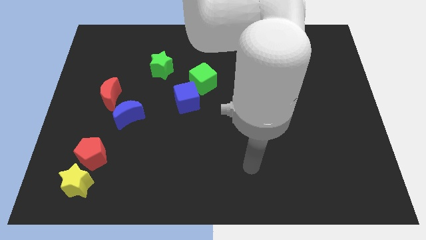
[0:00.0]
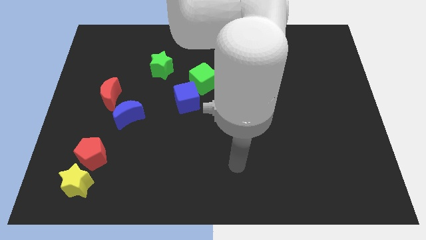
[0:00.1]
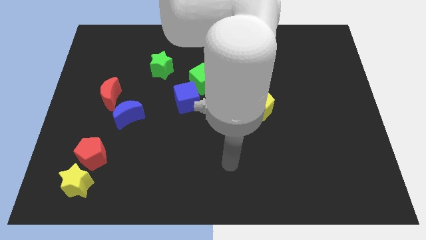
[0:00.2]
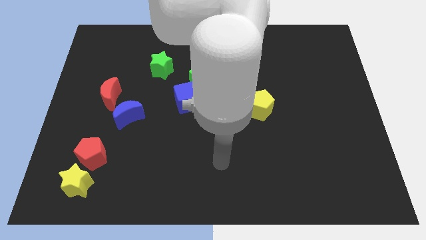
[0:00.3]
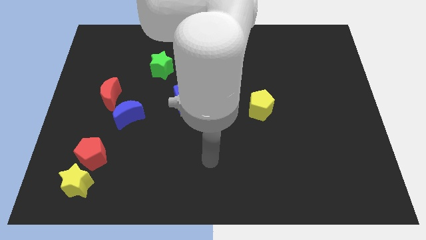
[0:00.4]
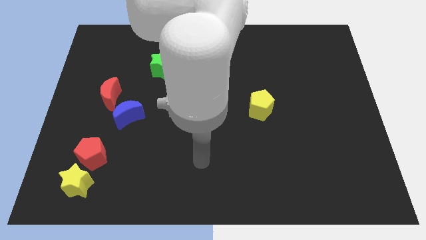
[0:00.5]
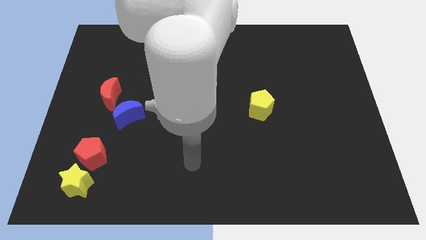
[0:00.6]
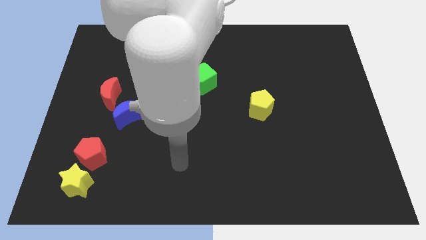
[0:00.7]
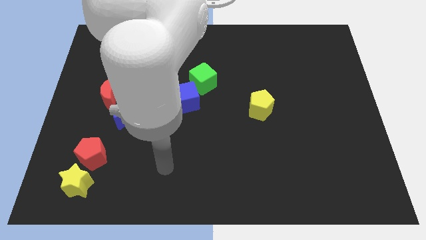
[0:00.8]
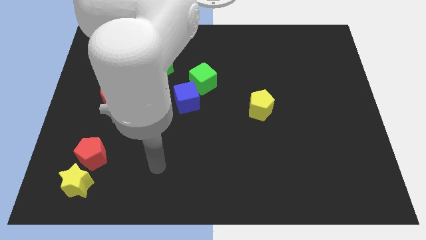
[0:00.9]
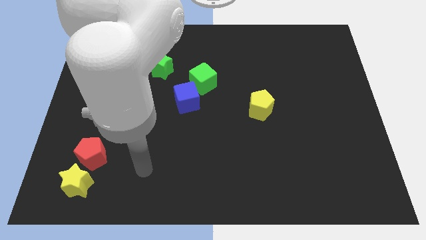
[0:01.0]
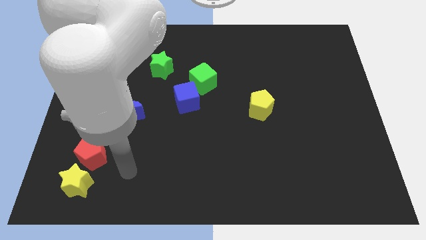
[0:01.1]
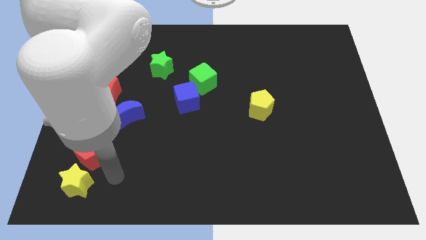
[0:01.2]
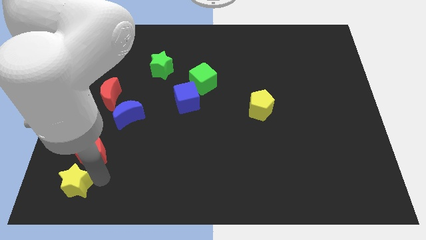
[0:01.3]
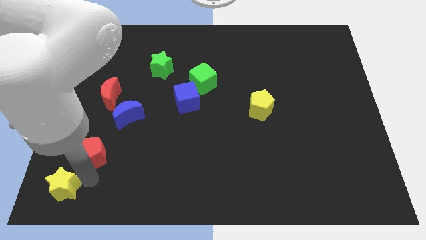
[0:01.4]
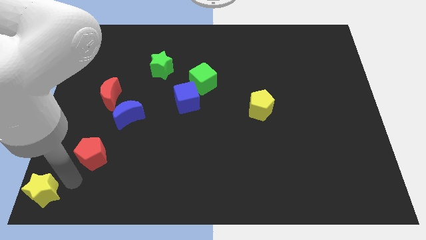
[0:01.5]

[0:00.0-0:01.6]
pull the red pentagon apart from the yellow star

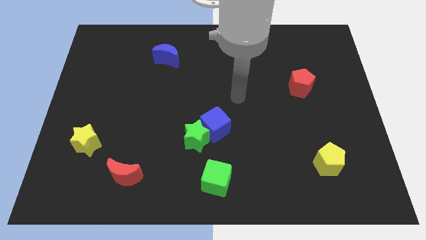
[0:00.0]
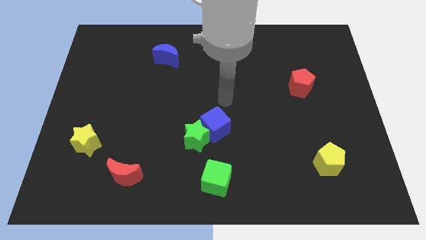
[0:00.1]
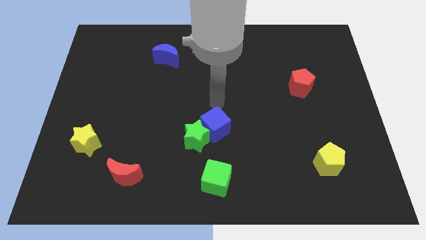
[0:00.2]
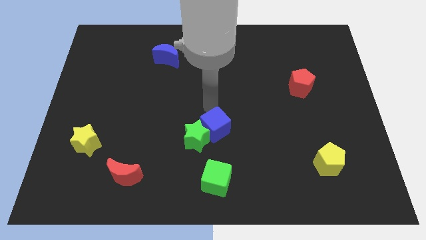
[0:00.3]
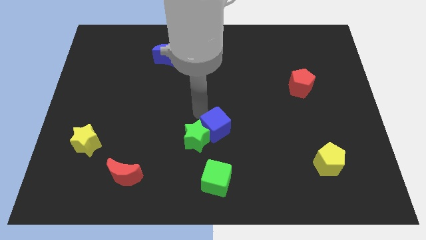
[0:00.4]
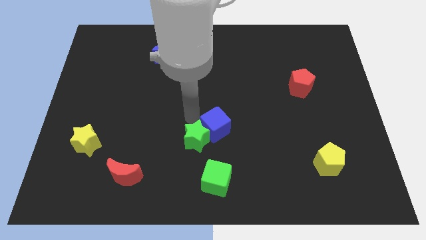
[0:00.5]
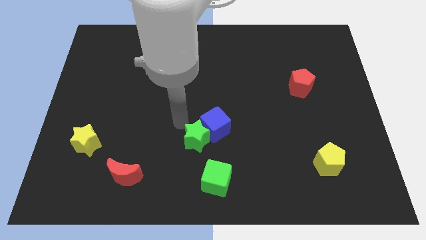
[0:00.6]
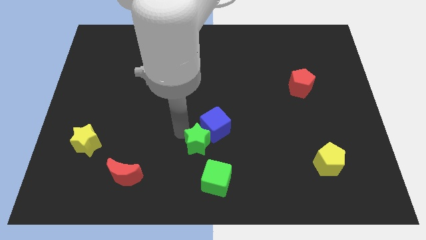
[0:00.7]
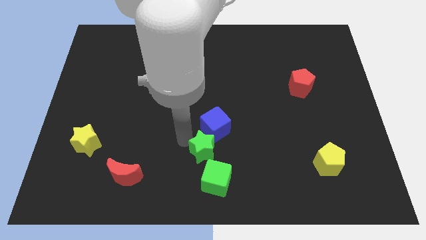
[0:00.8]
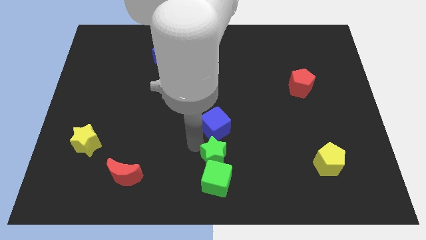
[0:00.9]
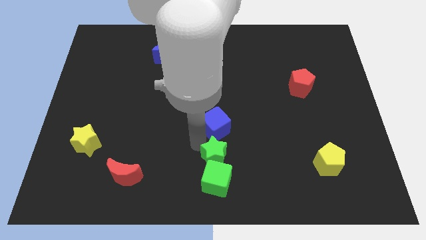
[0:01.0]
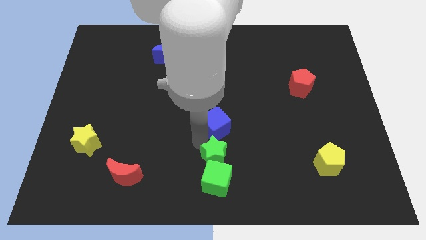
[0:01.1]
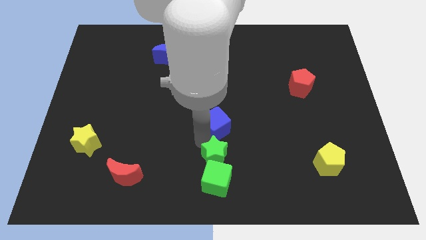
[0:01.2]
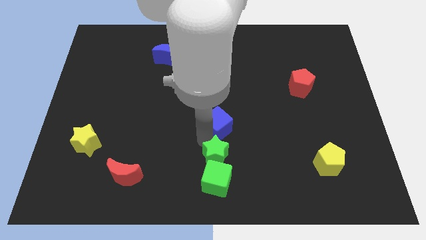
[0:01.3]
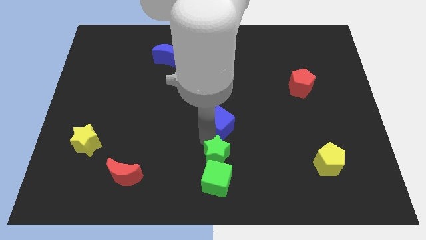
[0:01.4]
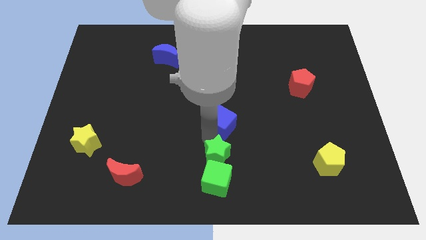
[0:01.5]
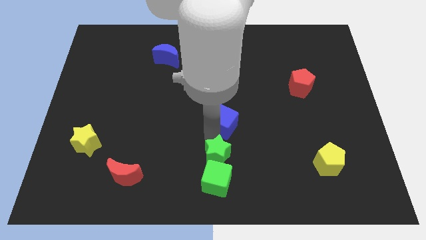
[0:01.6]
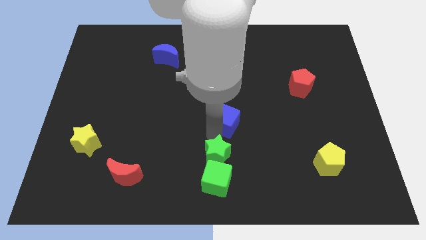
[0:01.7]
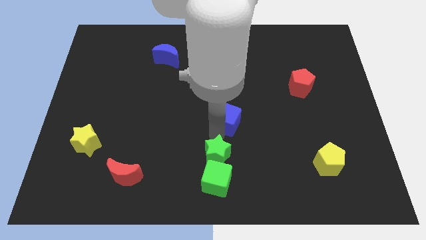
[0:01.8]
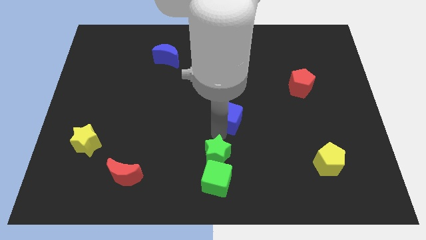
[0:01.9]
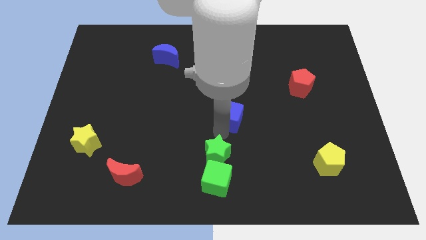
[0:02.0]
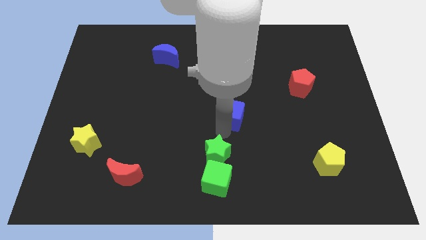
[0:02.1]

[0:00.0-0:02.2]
move the blue cube away from the green star

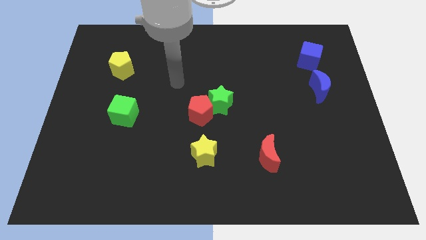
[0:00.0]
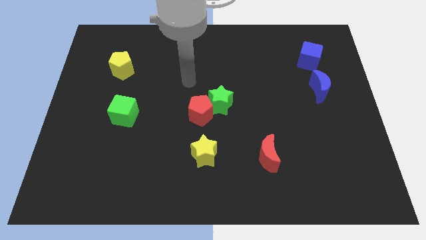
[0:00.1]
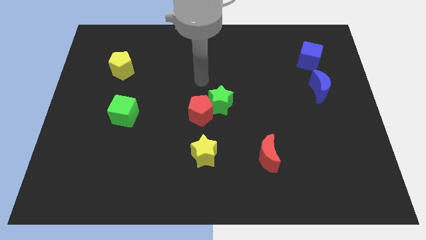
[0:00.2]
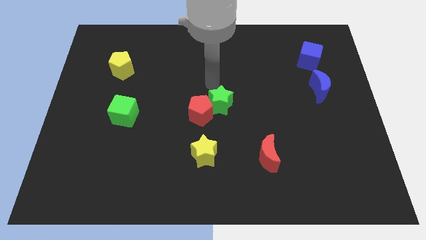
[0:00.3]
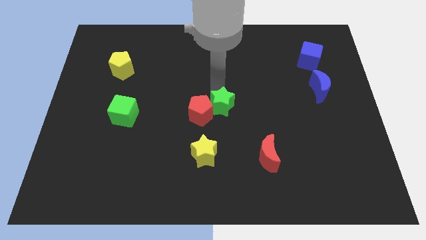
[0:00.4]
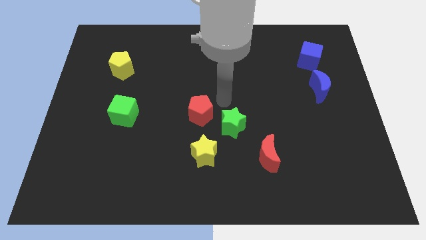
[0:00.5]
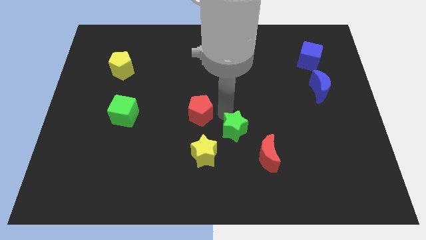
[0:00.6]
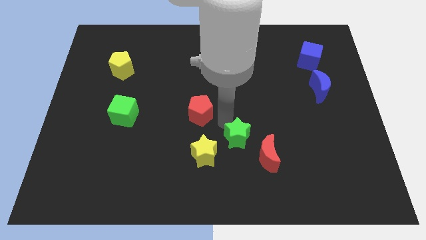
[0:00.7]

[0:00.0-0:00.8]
separate the red pentagon from the green star

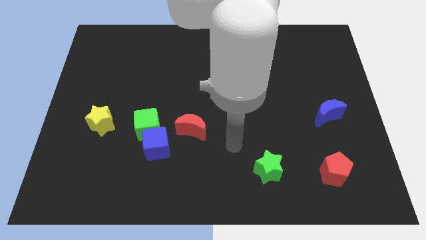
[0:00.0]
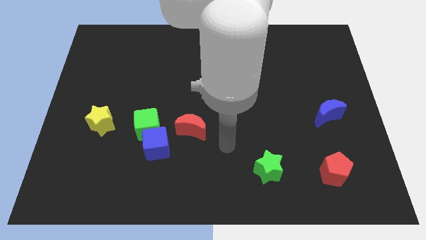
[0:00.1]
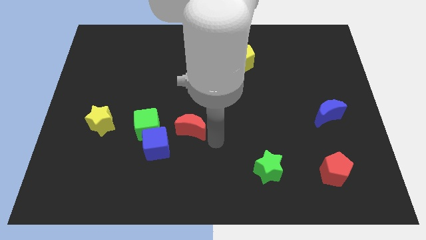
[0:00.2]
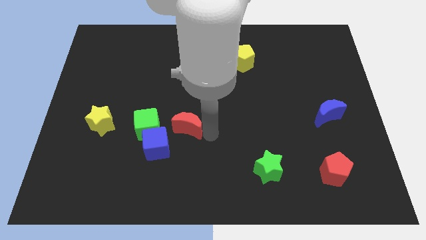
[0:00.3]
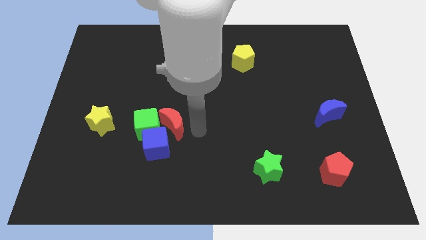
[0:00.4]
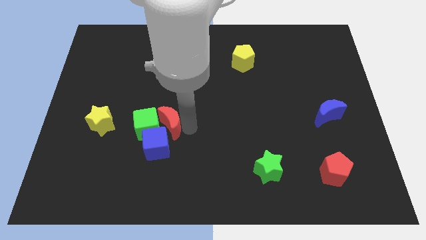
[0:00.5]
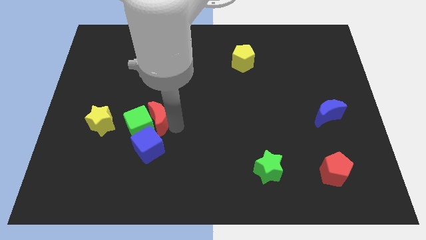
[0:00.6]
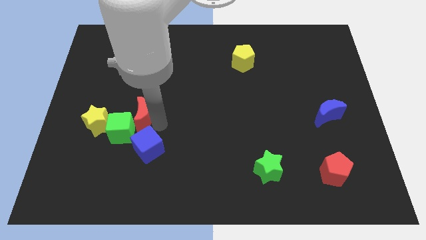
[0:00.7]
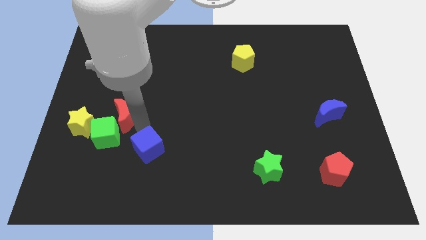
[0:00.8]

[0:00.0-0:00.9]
pull the blue cube apart from the green cube and red moon

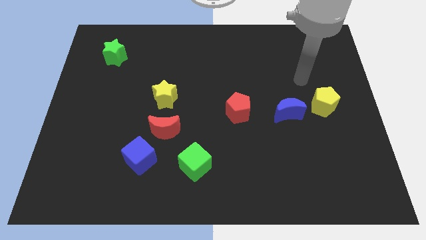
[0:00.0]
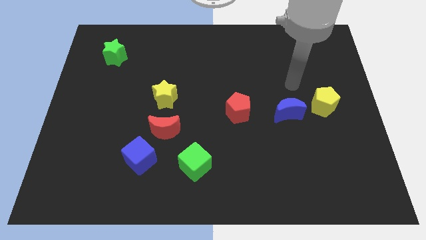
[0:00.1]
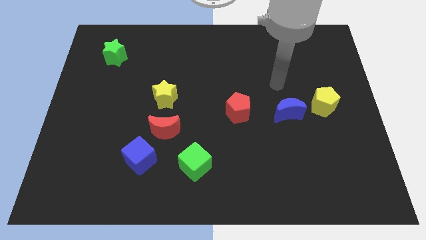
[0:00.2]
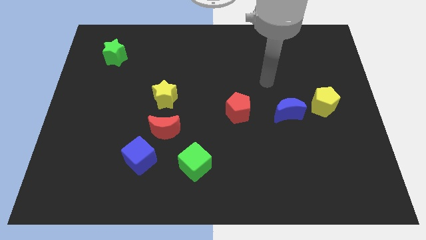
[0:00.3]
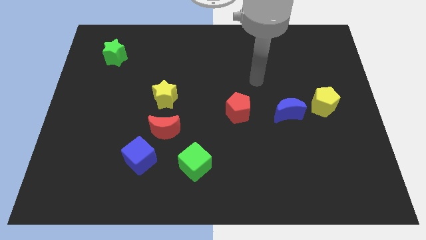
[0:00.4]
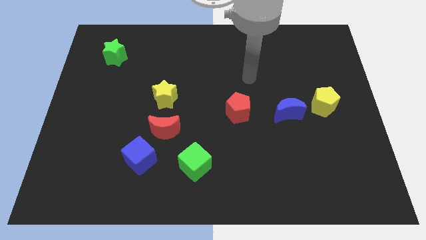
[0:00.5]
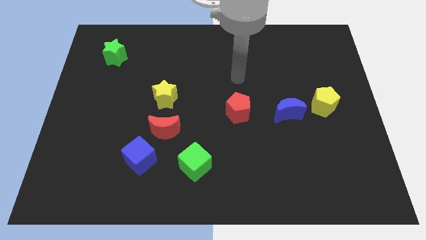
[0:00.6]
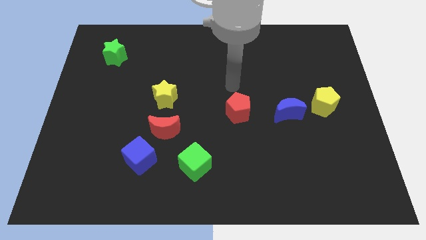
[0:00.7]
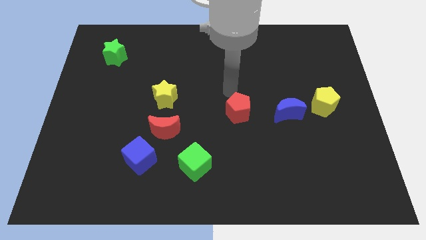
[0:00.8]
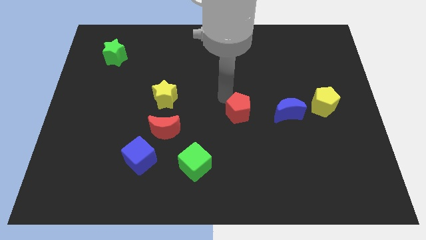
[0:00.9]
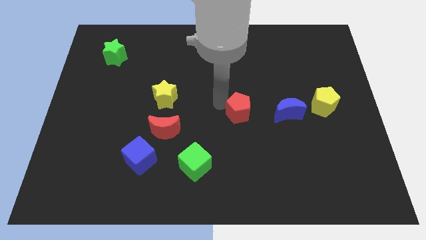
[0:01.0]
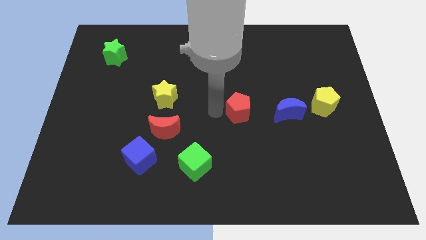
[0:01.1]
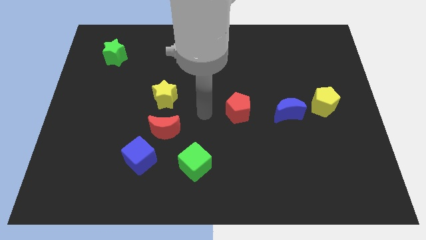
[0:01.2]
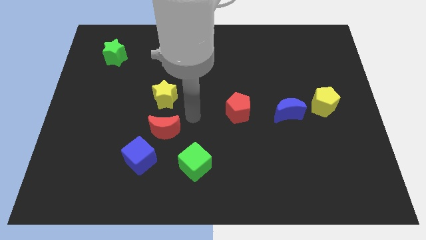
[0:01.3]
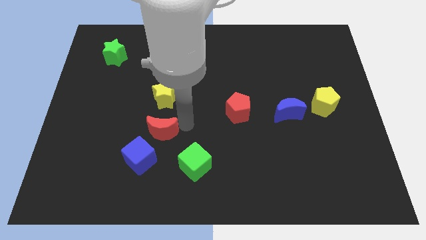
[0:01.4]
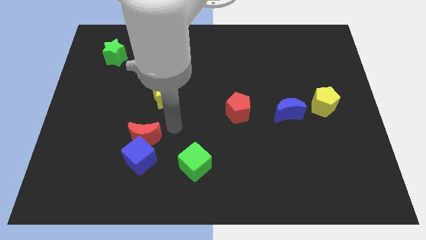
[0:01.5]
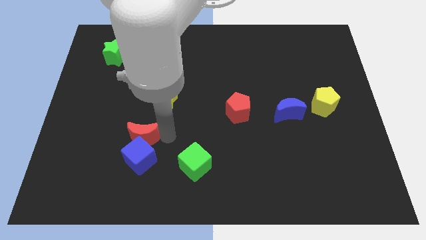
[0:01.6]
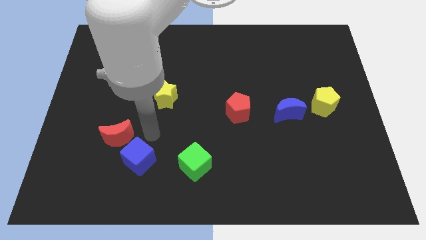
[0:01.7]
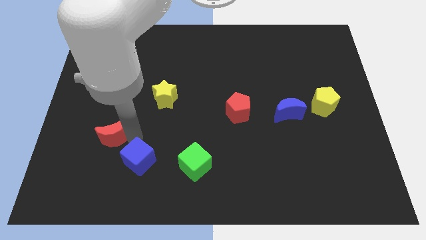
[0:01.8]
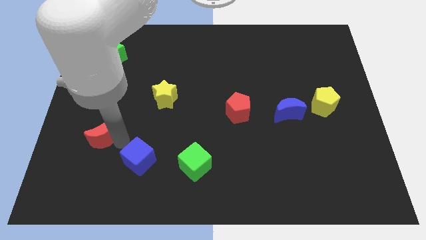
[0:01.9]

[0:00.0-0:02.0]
move the blue cube away from the red moon

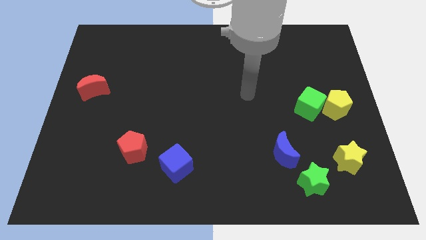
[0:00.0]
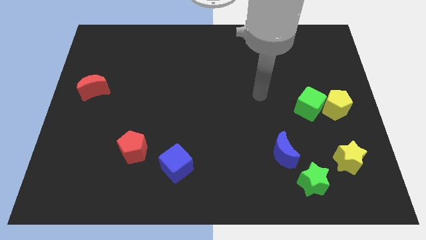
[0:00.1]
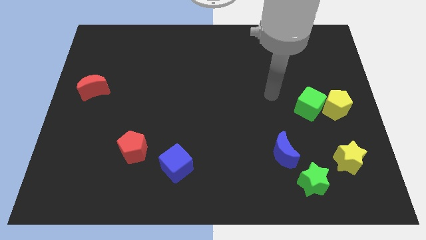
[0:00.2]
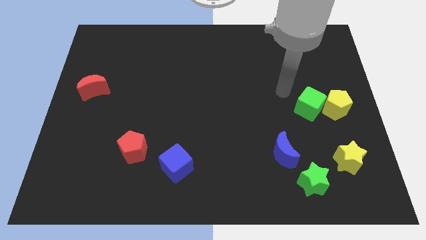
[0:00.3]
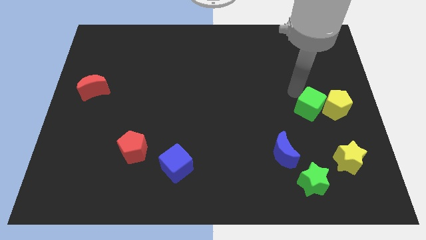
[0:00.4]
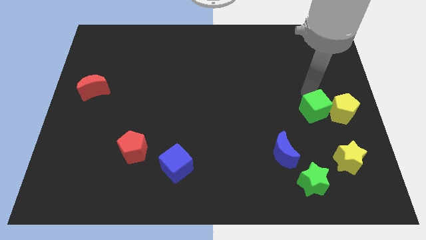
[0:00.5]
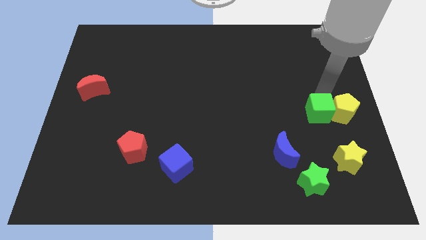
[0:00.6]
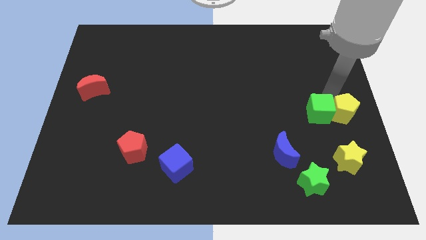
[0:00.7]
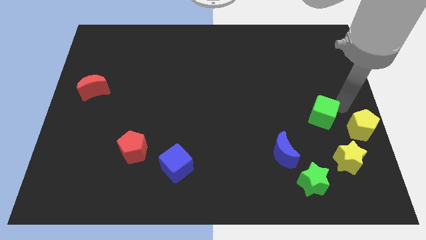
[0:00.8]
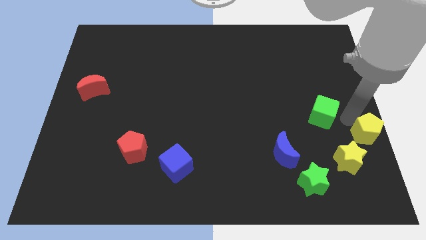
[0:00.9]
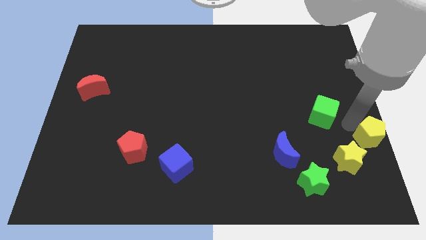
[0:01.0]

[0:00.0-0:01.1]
separate the green cube from the yellow pentagon

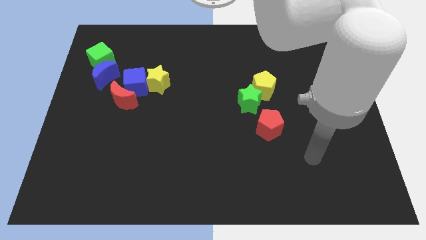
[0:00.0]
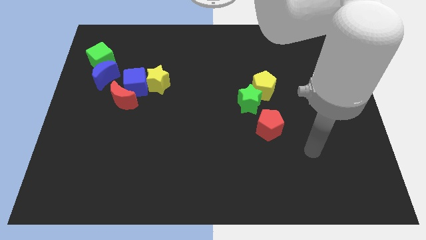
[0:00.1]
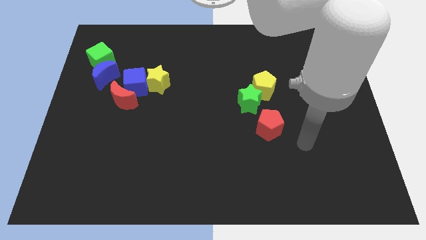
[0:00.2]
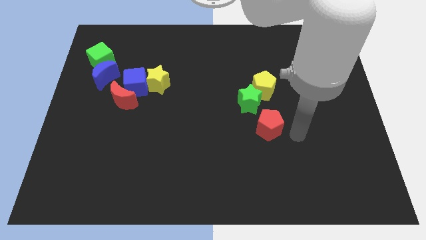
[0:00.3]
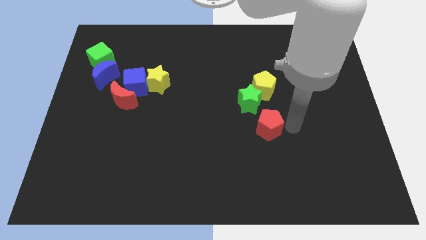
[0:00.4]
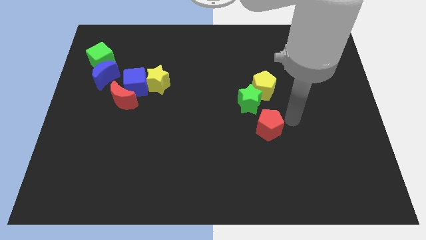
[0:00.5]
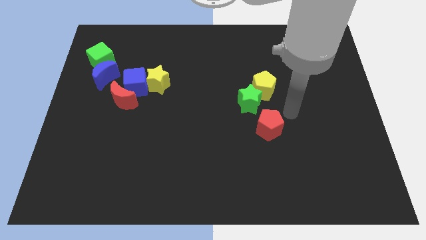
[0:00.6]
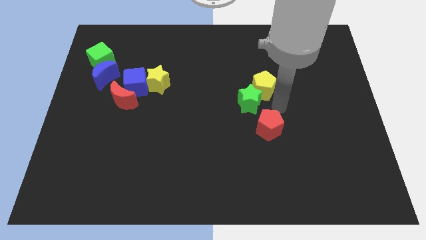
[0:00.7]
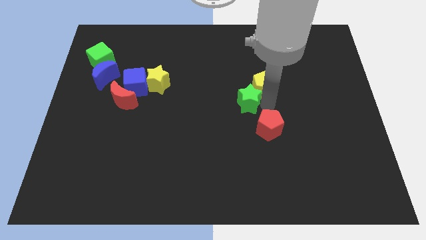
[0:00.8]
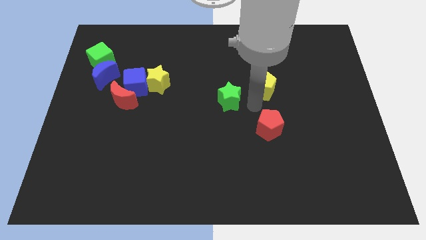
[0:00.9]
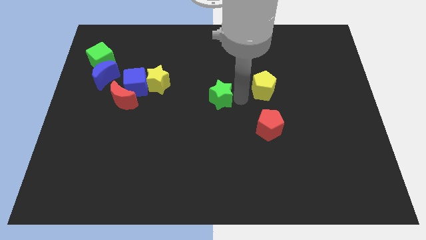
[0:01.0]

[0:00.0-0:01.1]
move the yellow pentagon away from the green star
